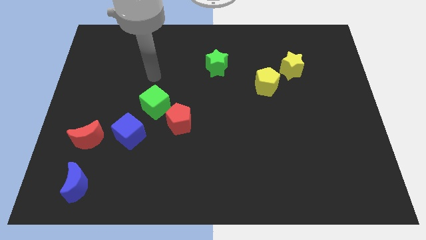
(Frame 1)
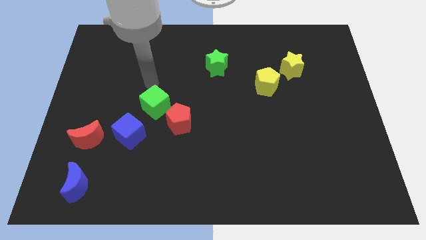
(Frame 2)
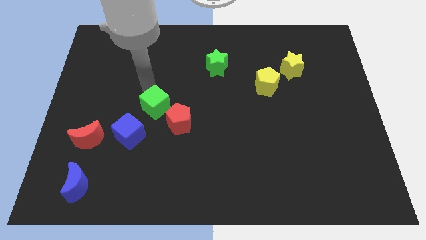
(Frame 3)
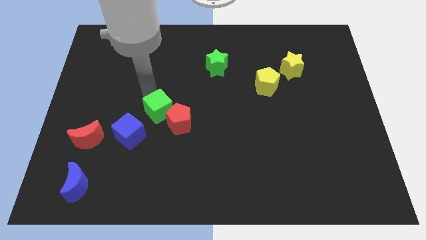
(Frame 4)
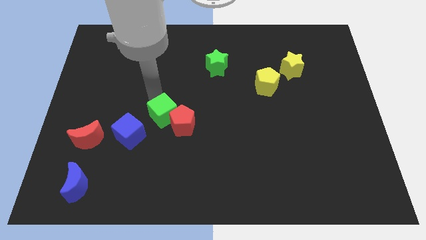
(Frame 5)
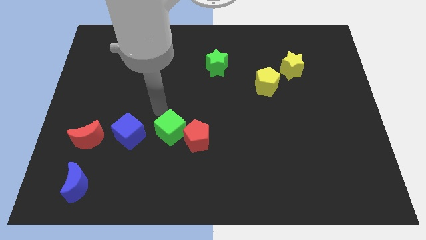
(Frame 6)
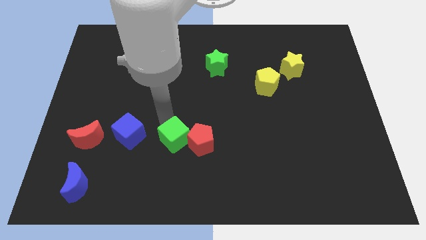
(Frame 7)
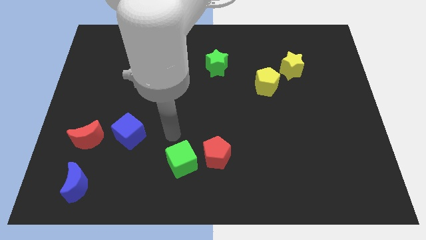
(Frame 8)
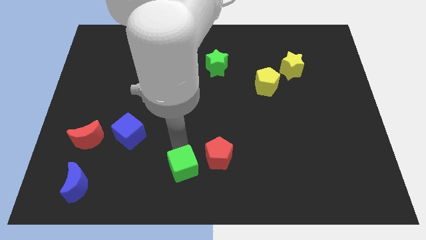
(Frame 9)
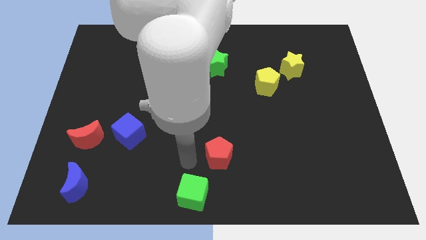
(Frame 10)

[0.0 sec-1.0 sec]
move the red pentagon away from the green cube

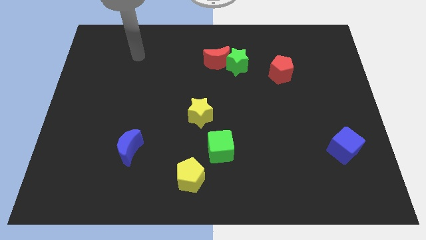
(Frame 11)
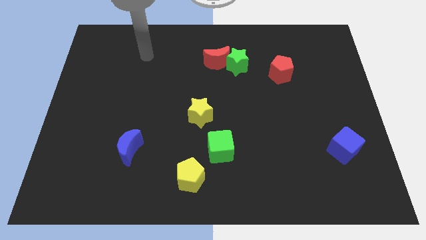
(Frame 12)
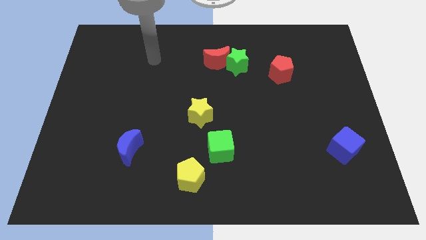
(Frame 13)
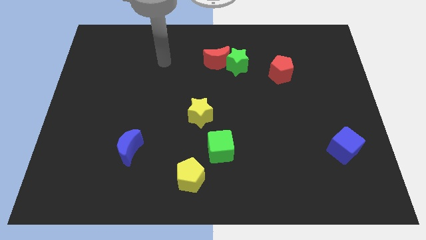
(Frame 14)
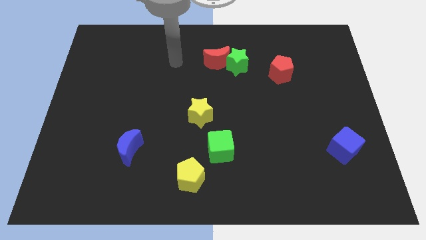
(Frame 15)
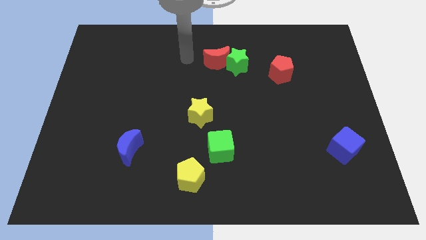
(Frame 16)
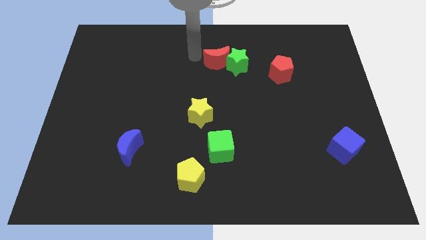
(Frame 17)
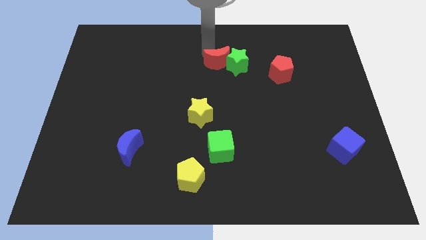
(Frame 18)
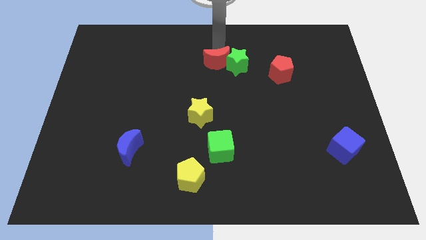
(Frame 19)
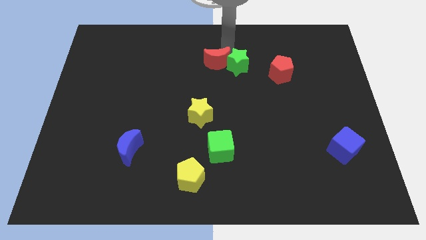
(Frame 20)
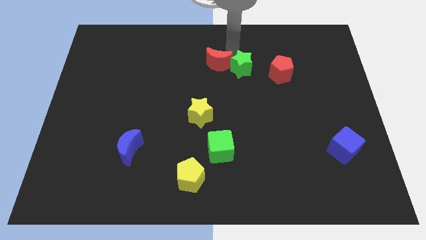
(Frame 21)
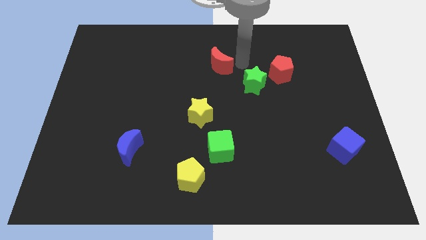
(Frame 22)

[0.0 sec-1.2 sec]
pull the red moon apart from the green star

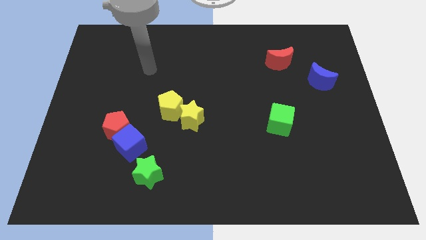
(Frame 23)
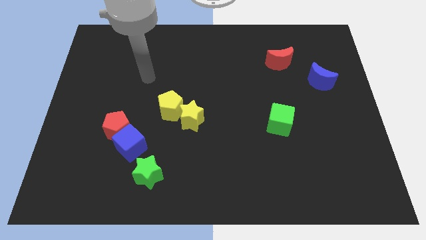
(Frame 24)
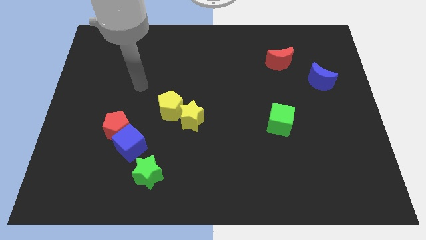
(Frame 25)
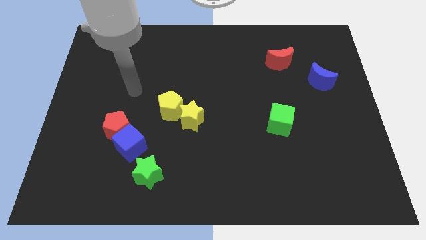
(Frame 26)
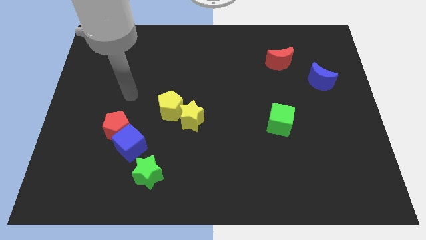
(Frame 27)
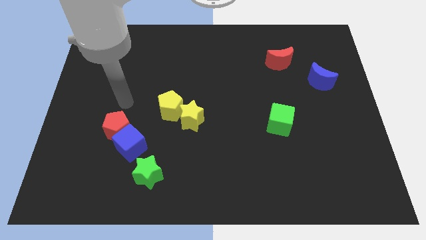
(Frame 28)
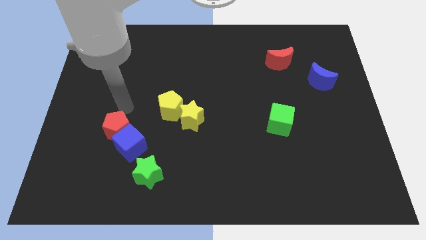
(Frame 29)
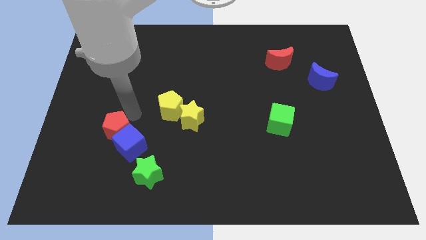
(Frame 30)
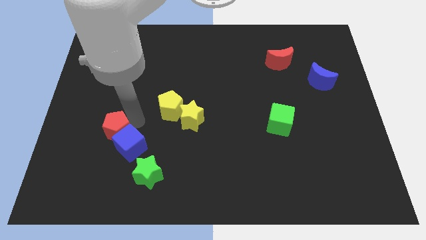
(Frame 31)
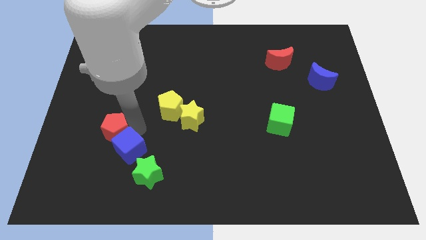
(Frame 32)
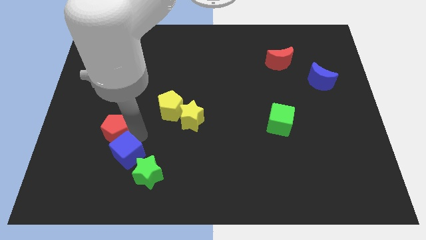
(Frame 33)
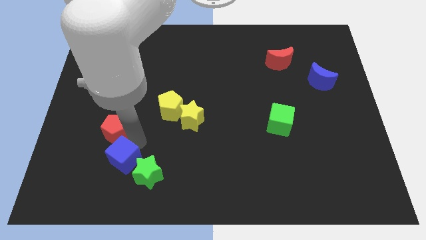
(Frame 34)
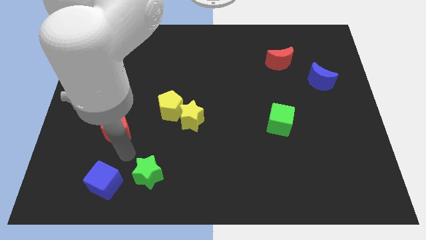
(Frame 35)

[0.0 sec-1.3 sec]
move the red pentagon away from the blue cube

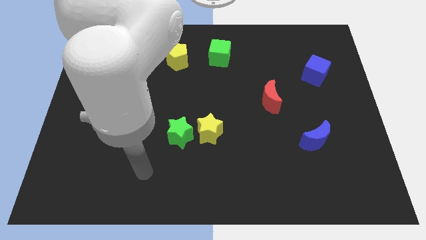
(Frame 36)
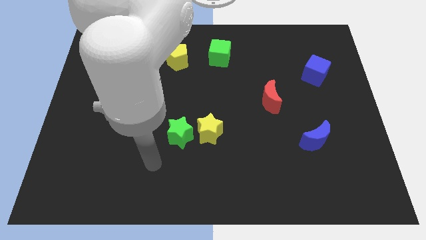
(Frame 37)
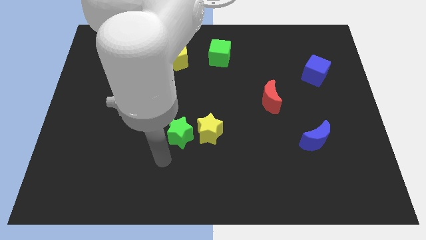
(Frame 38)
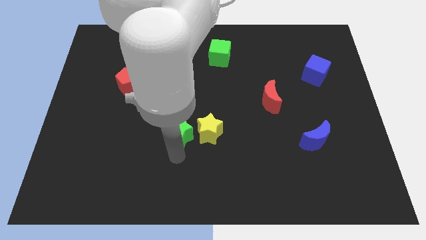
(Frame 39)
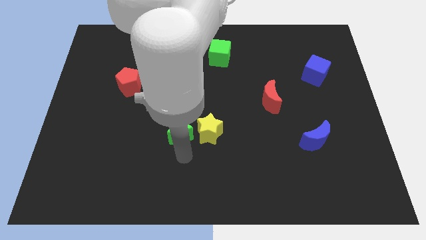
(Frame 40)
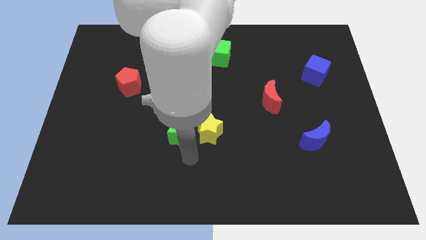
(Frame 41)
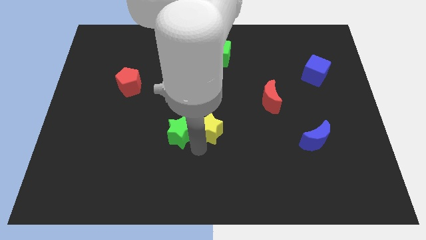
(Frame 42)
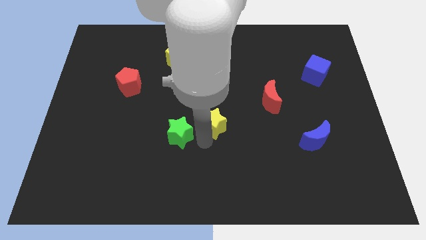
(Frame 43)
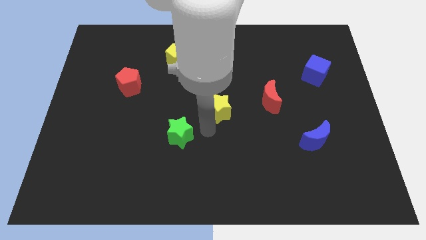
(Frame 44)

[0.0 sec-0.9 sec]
pull the green star apart from the yellow star

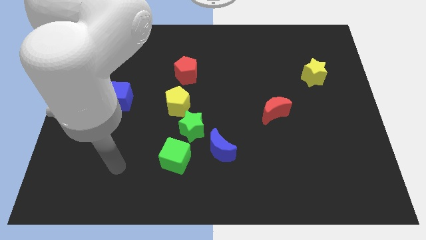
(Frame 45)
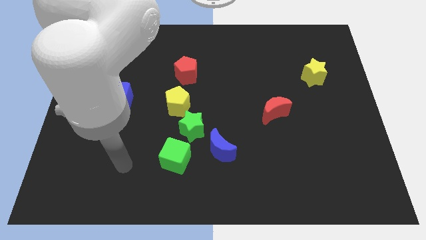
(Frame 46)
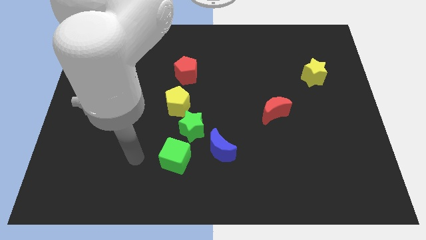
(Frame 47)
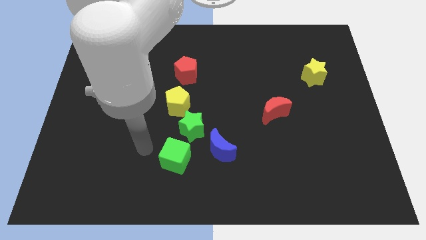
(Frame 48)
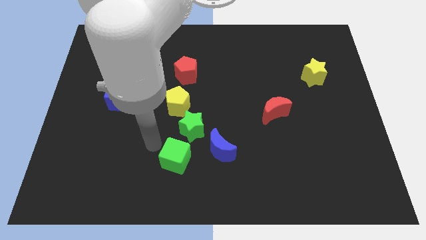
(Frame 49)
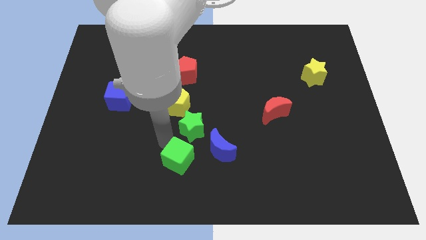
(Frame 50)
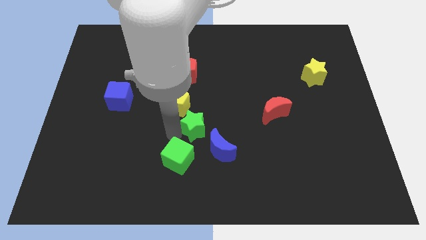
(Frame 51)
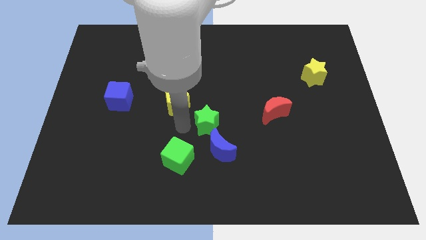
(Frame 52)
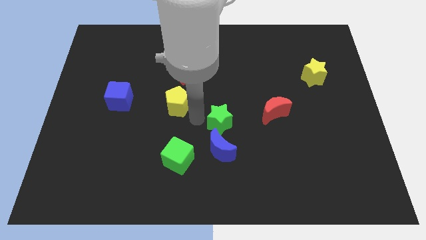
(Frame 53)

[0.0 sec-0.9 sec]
separate the yellow pentagon from the green star

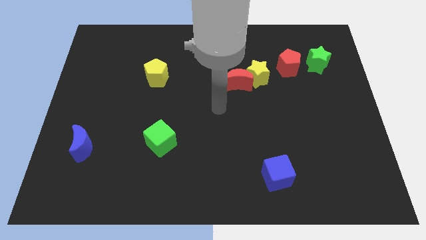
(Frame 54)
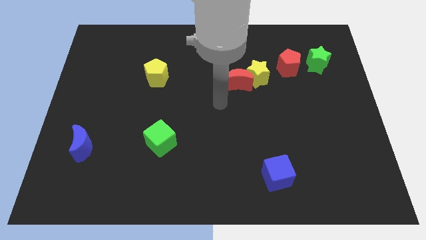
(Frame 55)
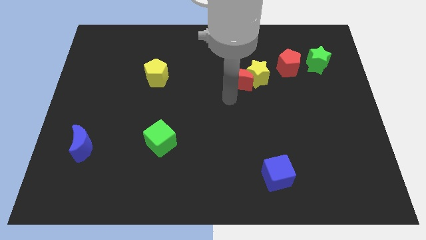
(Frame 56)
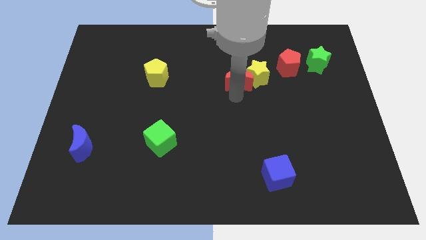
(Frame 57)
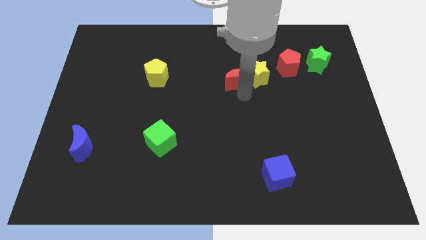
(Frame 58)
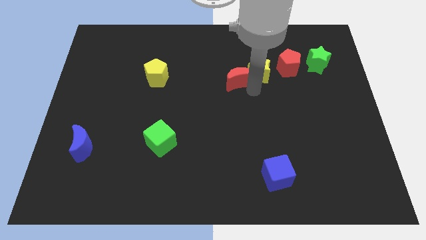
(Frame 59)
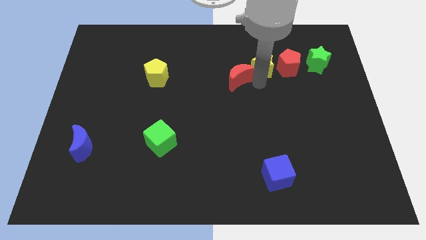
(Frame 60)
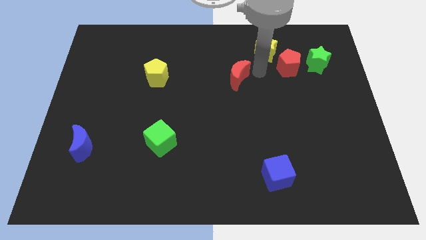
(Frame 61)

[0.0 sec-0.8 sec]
pull the red moon apart from the yellow star

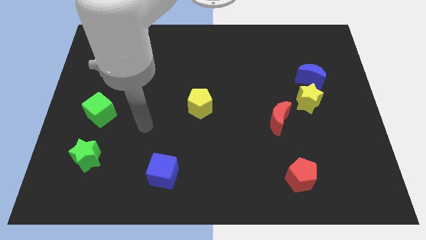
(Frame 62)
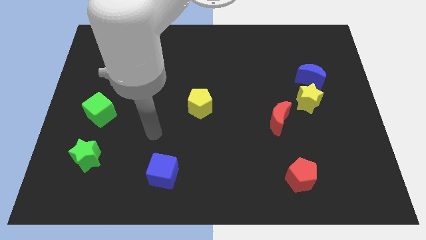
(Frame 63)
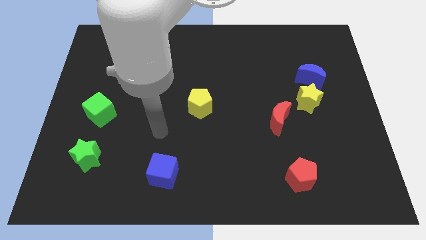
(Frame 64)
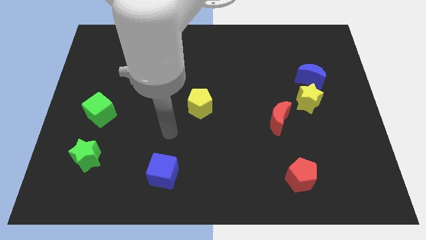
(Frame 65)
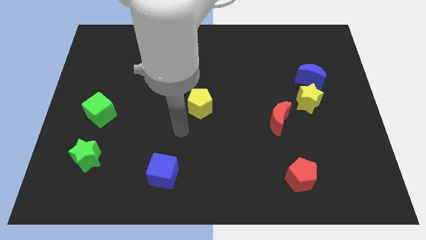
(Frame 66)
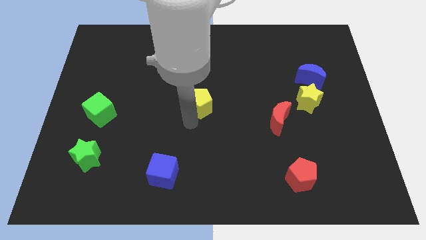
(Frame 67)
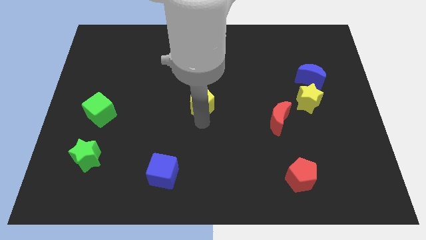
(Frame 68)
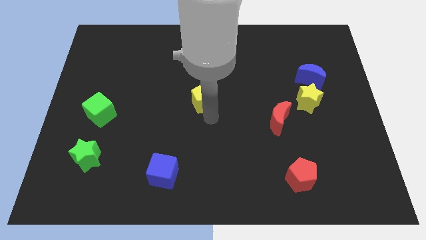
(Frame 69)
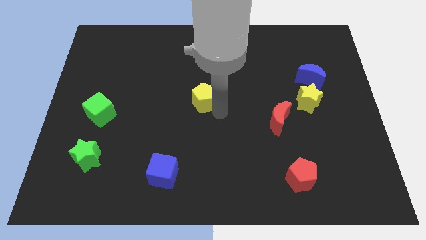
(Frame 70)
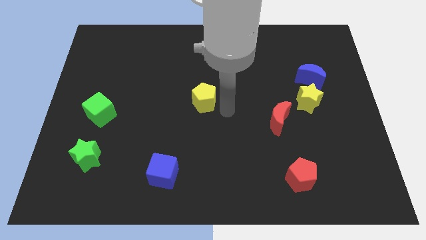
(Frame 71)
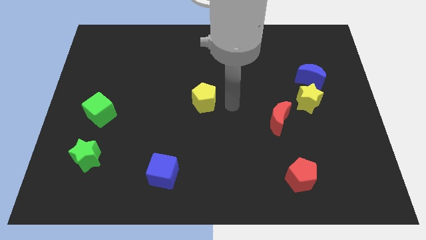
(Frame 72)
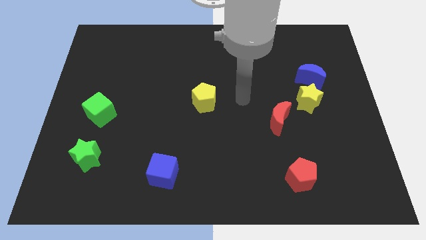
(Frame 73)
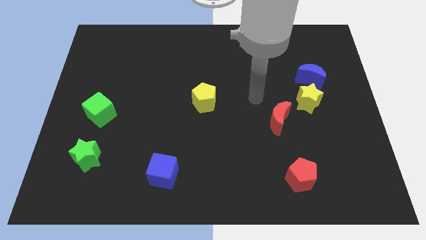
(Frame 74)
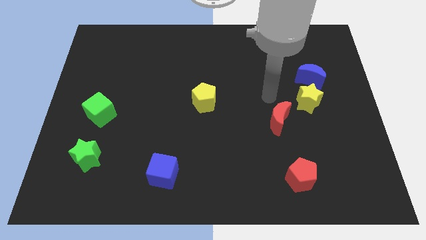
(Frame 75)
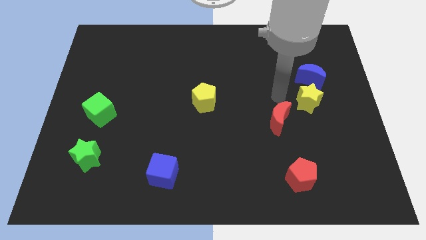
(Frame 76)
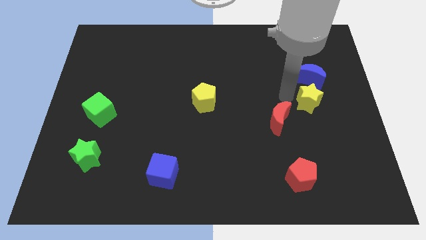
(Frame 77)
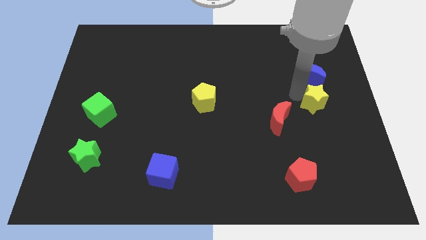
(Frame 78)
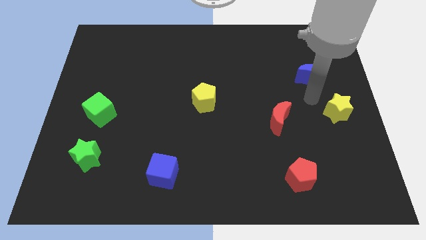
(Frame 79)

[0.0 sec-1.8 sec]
pull the blue moon apart from the yellow star

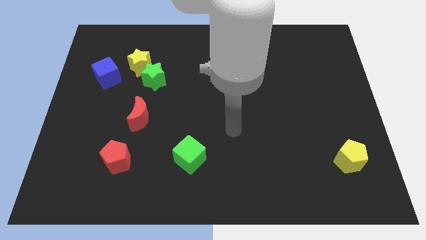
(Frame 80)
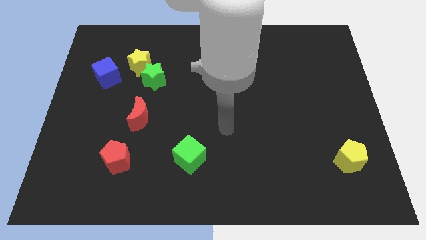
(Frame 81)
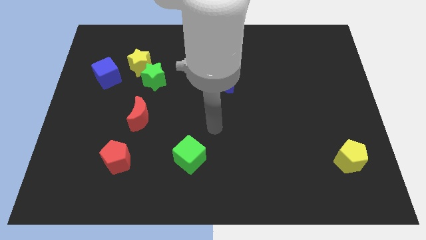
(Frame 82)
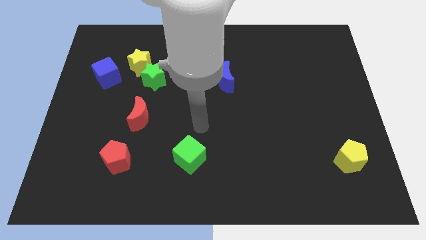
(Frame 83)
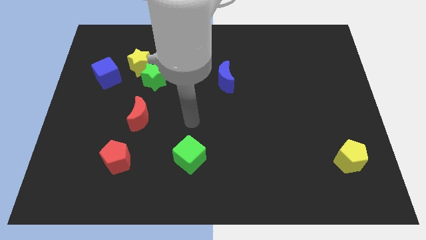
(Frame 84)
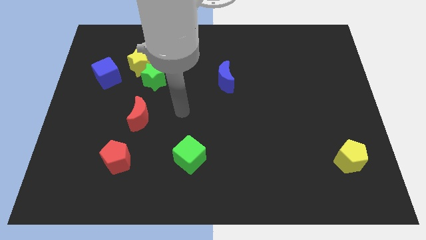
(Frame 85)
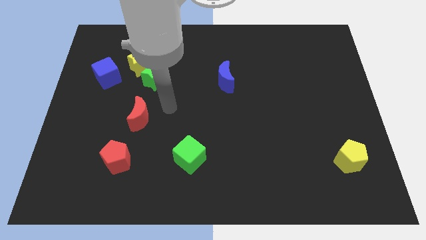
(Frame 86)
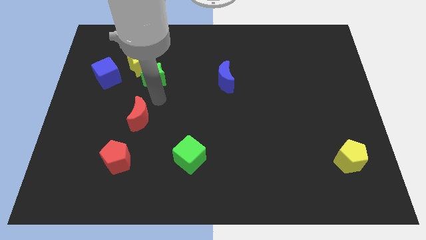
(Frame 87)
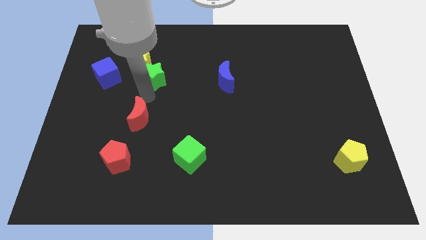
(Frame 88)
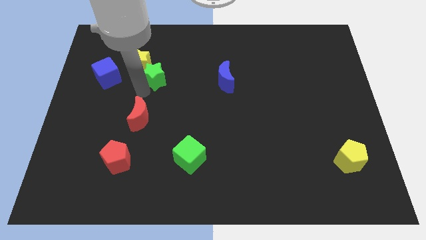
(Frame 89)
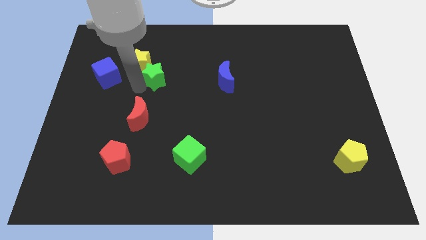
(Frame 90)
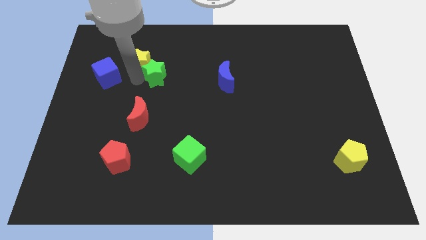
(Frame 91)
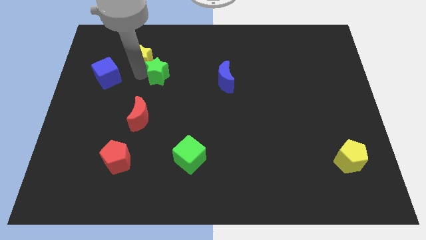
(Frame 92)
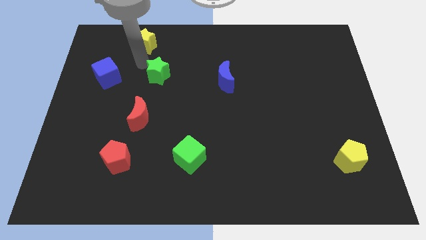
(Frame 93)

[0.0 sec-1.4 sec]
move the green star away from the yellow star
